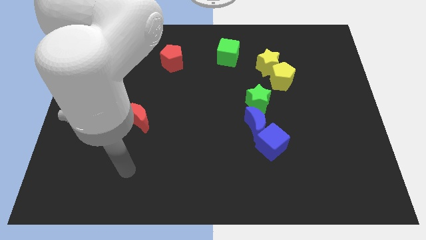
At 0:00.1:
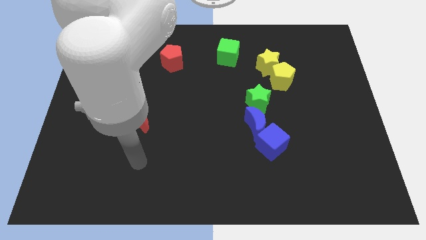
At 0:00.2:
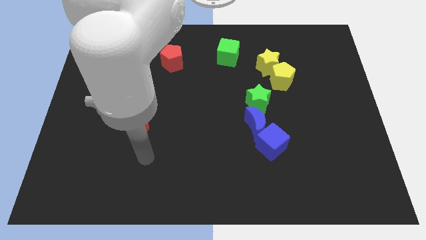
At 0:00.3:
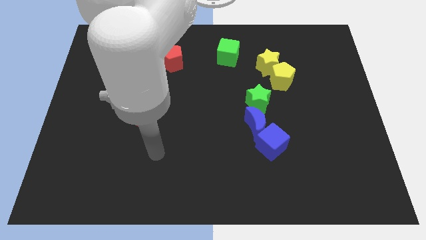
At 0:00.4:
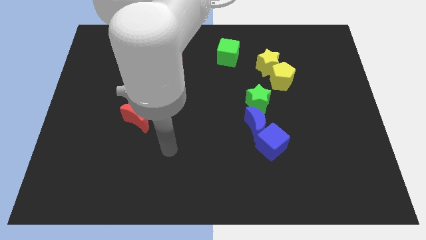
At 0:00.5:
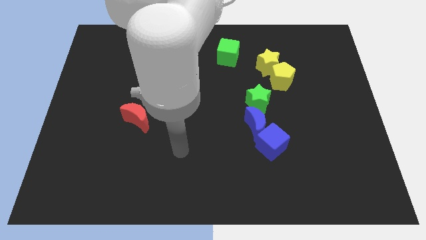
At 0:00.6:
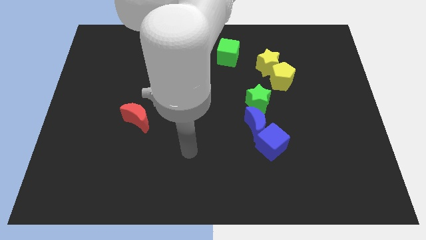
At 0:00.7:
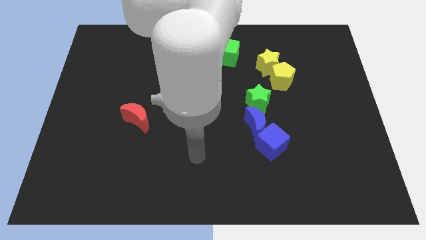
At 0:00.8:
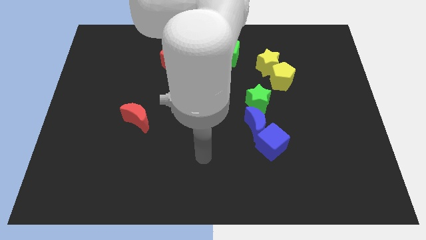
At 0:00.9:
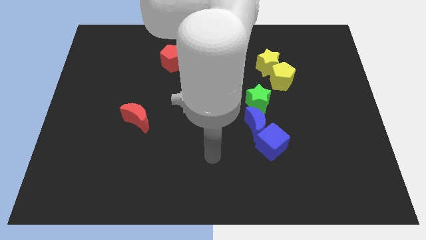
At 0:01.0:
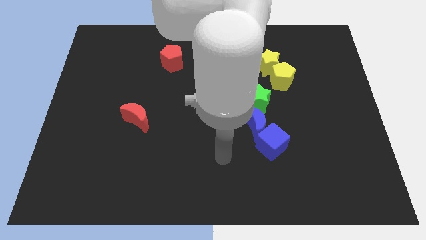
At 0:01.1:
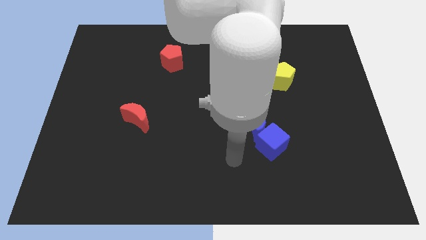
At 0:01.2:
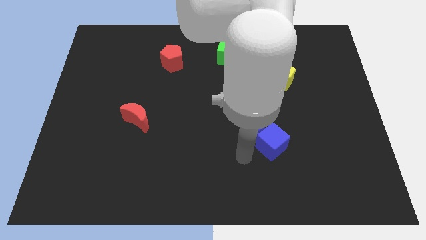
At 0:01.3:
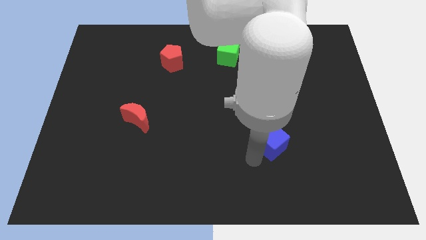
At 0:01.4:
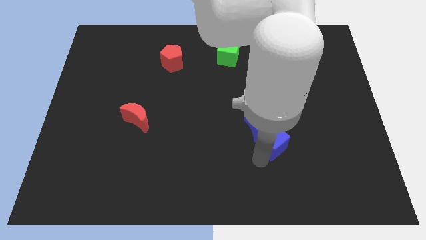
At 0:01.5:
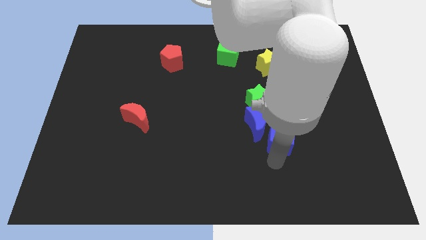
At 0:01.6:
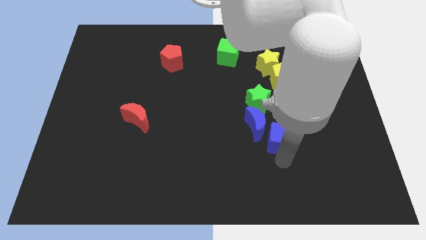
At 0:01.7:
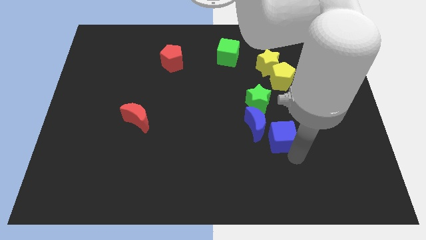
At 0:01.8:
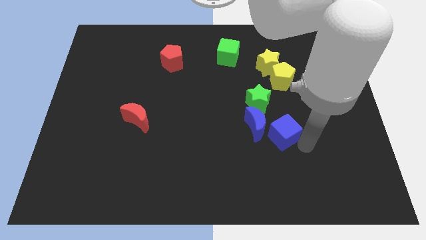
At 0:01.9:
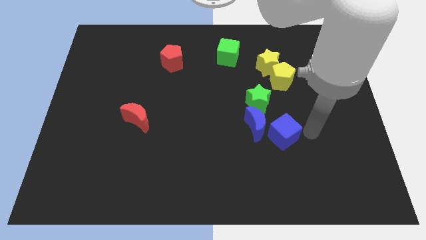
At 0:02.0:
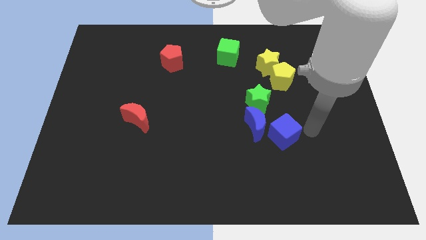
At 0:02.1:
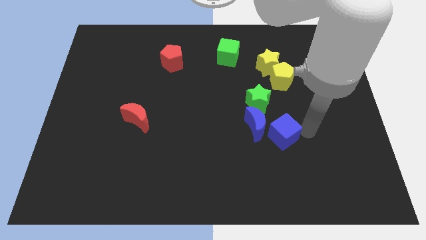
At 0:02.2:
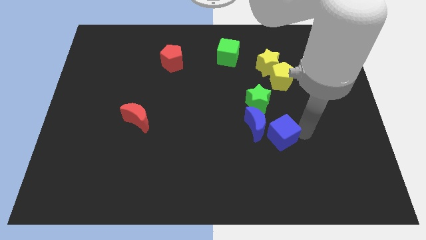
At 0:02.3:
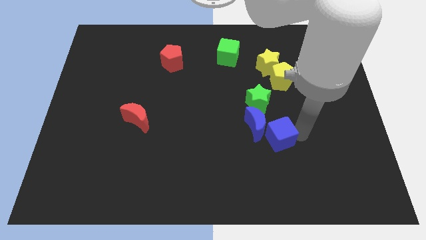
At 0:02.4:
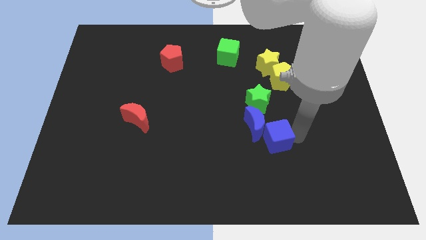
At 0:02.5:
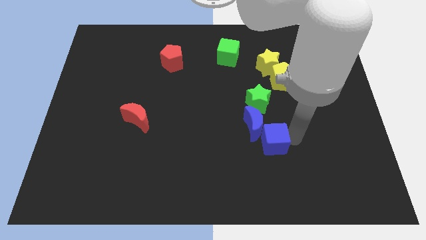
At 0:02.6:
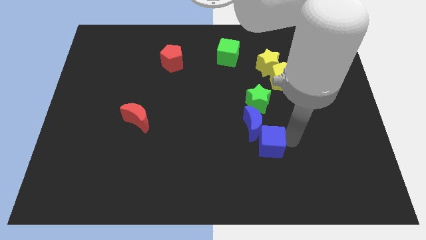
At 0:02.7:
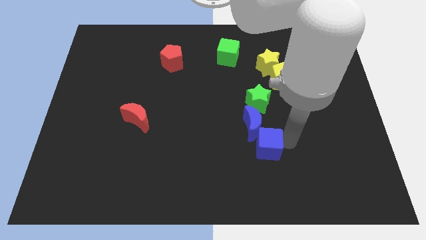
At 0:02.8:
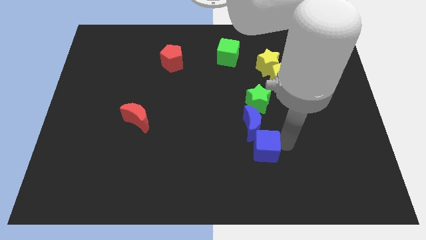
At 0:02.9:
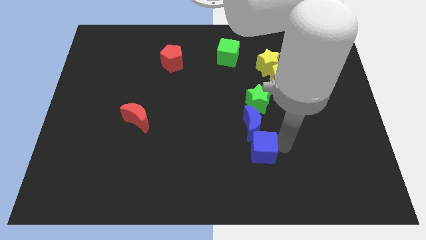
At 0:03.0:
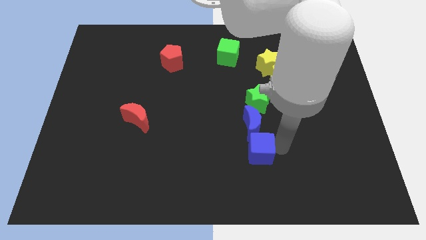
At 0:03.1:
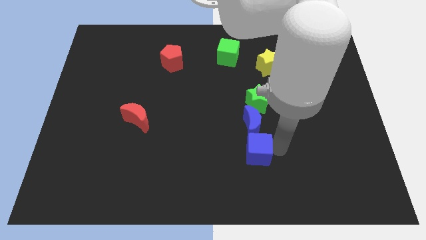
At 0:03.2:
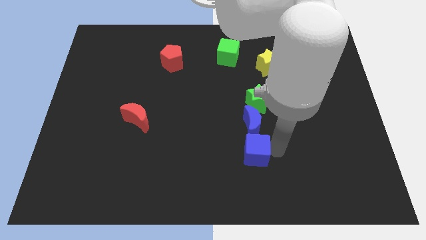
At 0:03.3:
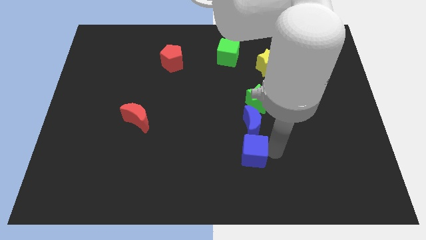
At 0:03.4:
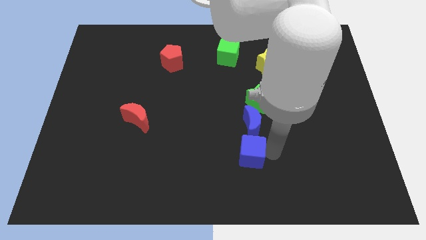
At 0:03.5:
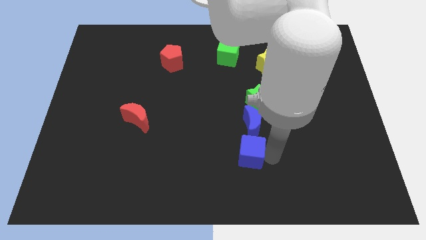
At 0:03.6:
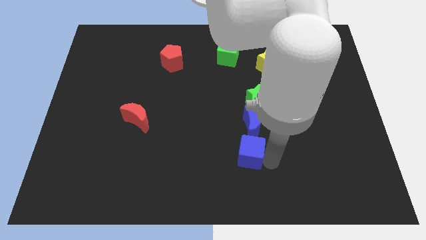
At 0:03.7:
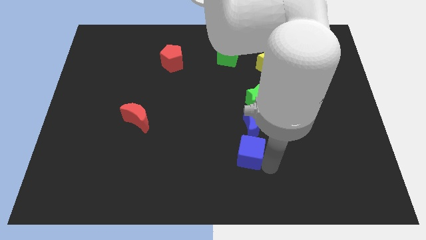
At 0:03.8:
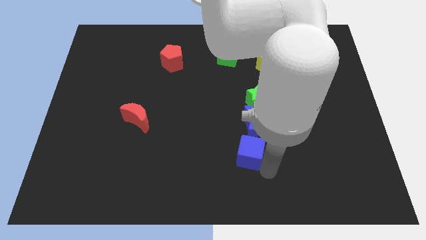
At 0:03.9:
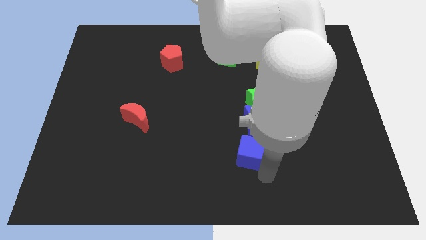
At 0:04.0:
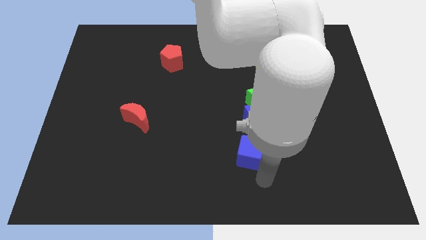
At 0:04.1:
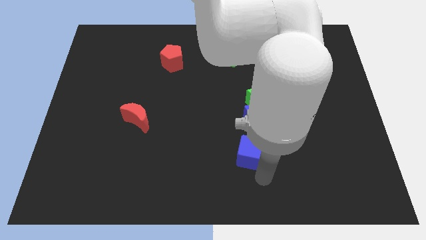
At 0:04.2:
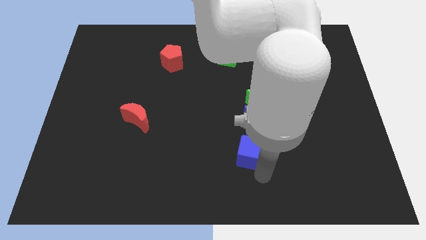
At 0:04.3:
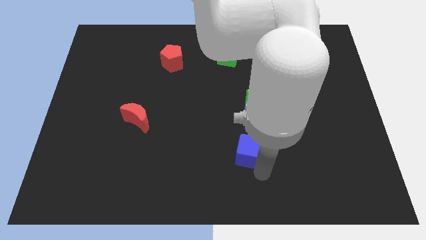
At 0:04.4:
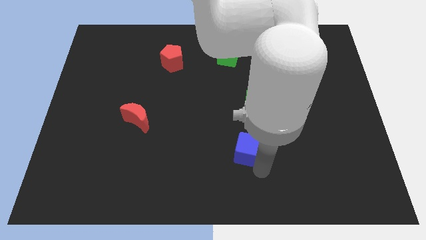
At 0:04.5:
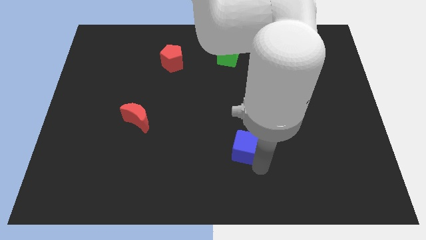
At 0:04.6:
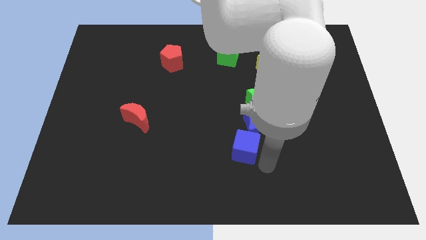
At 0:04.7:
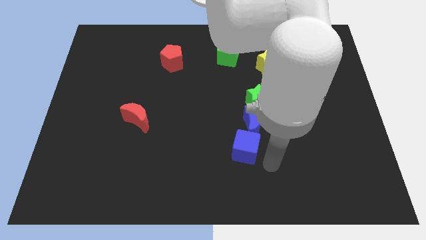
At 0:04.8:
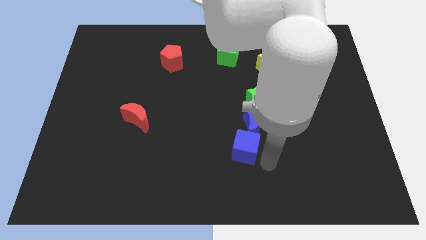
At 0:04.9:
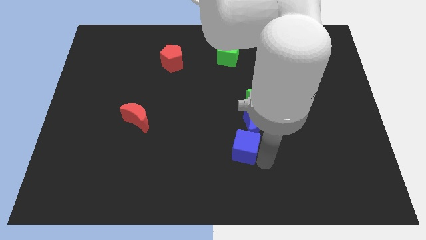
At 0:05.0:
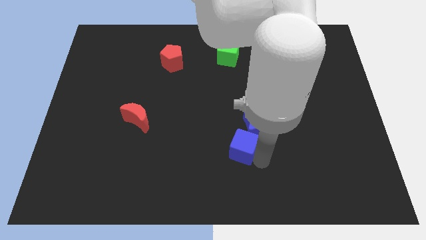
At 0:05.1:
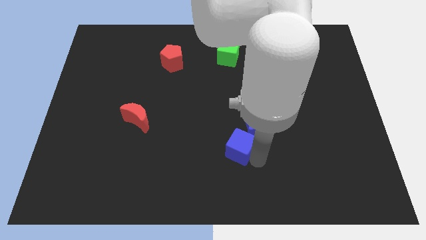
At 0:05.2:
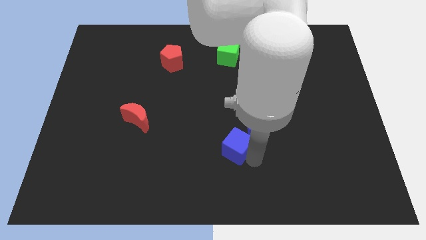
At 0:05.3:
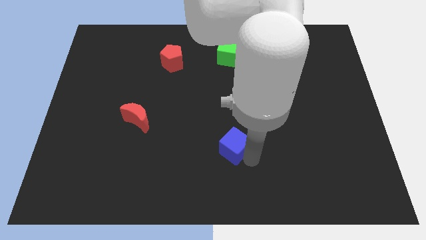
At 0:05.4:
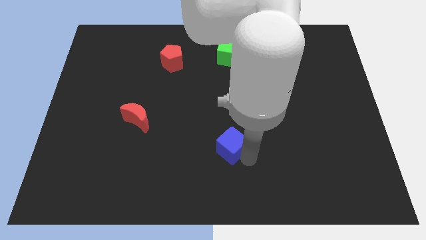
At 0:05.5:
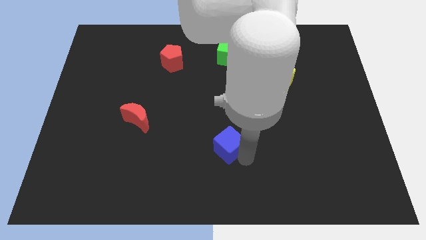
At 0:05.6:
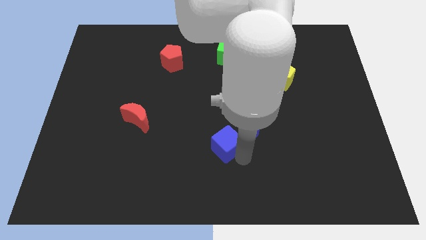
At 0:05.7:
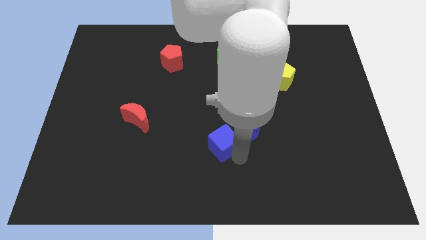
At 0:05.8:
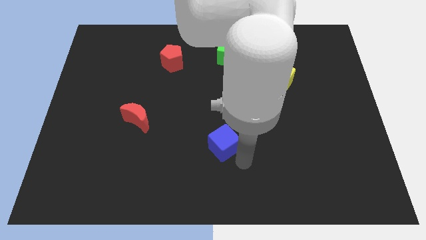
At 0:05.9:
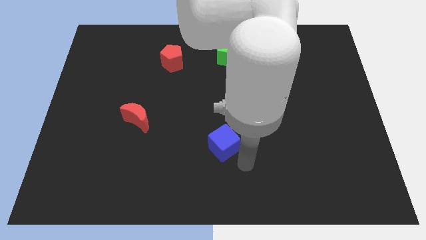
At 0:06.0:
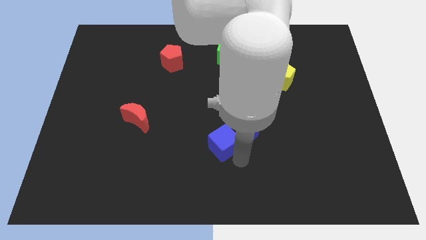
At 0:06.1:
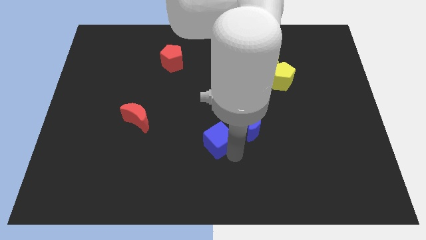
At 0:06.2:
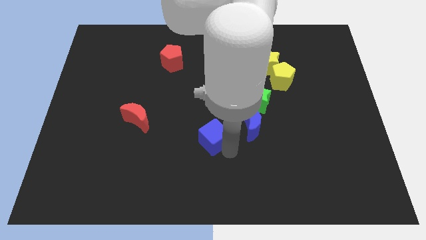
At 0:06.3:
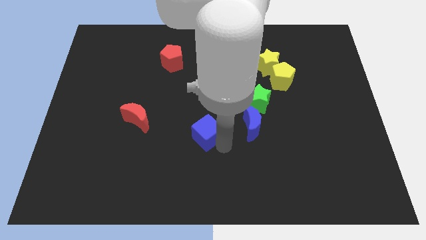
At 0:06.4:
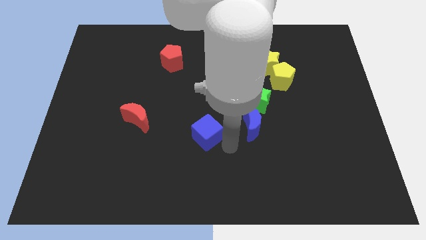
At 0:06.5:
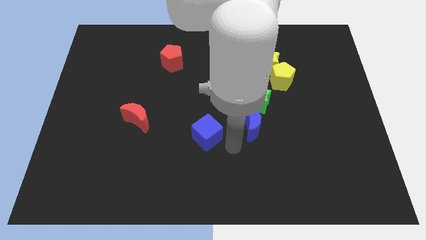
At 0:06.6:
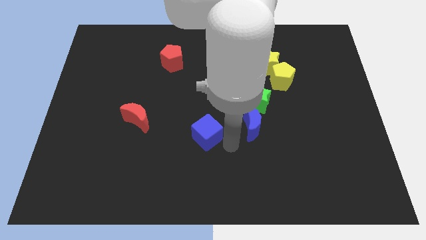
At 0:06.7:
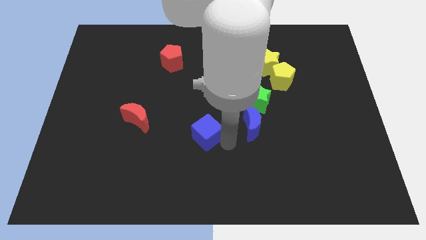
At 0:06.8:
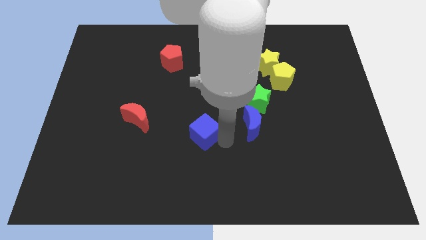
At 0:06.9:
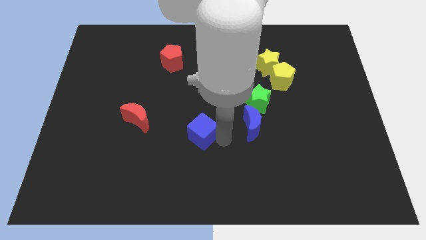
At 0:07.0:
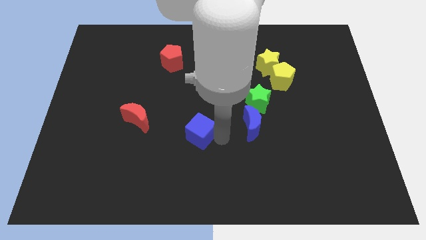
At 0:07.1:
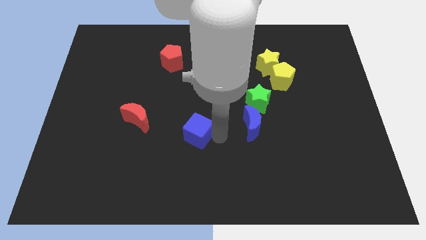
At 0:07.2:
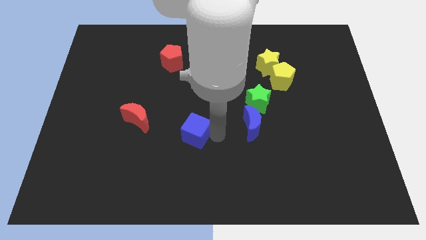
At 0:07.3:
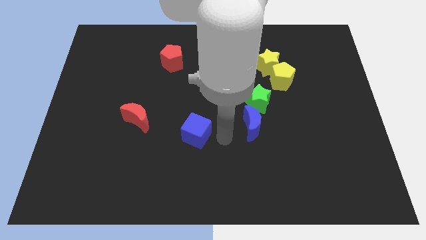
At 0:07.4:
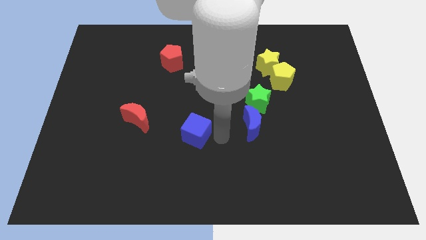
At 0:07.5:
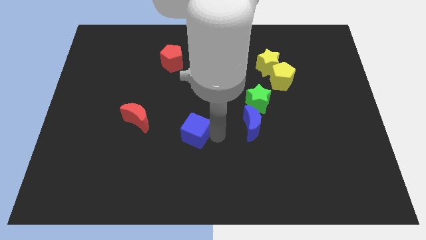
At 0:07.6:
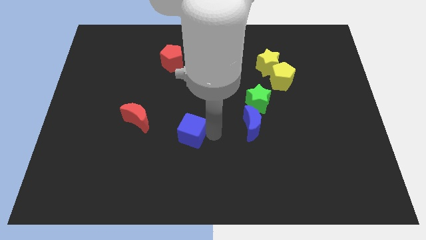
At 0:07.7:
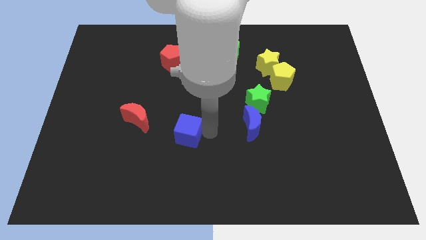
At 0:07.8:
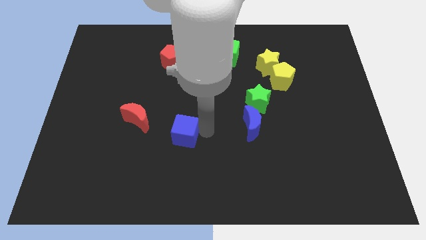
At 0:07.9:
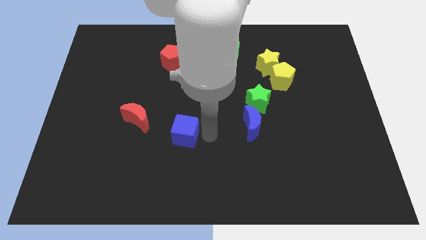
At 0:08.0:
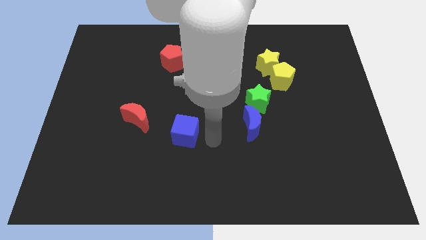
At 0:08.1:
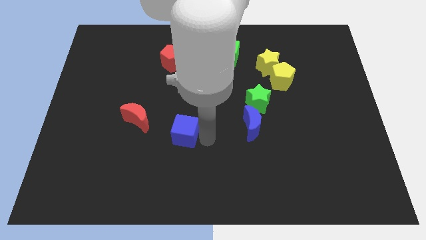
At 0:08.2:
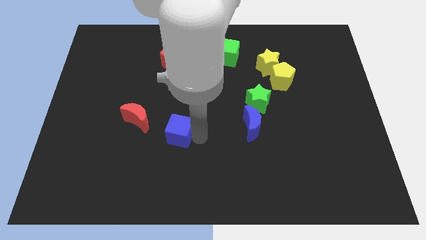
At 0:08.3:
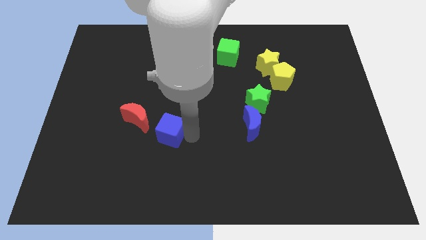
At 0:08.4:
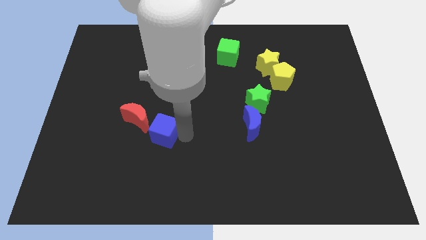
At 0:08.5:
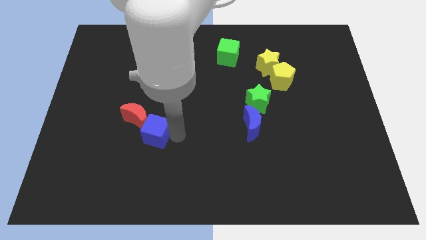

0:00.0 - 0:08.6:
move the blue cube to the red moon
